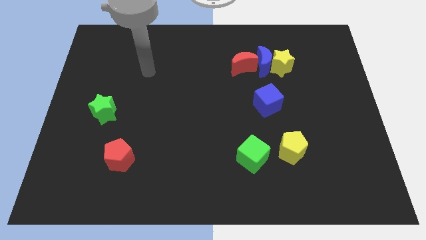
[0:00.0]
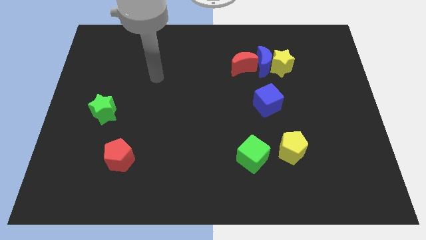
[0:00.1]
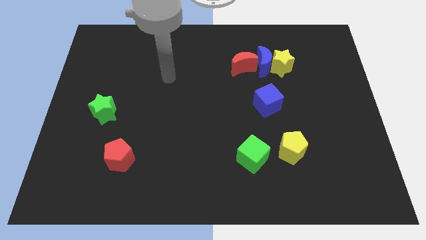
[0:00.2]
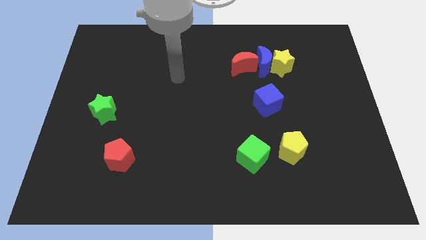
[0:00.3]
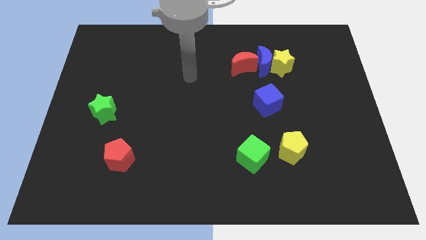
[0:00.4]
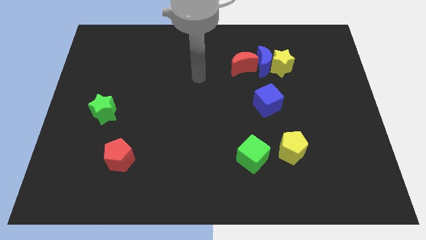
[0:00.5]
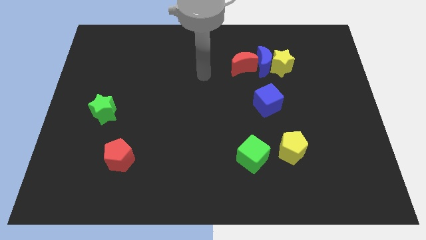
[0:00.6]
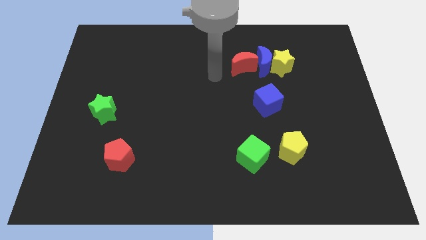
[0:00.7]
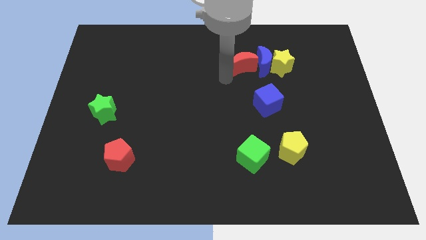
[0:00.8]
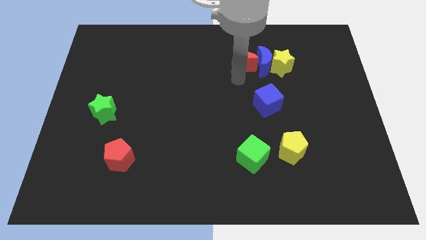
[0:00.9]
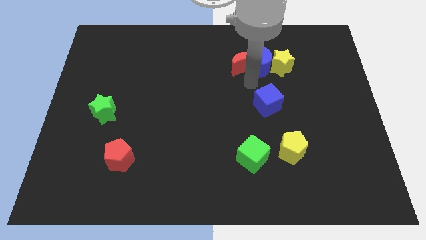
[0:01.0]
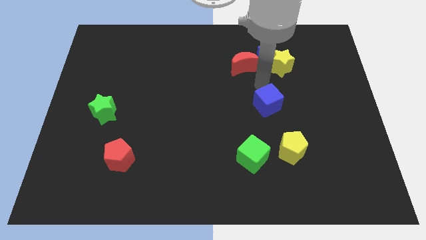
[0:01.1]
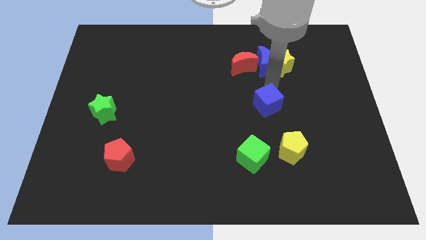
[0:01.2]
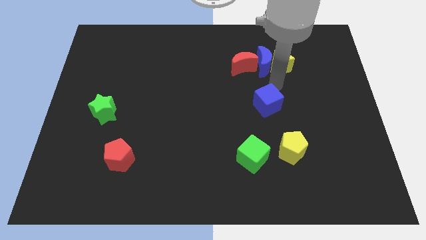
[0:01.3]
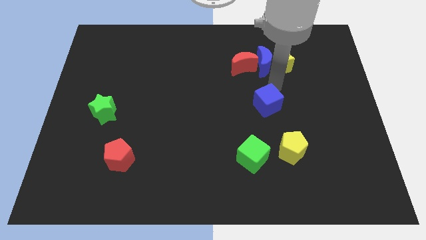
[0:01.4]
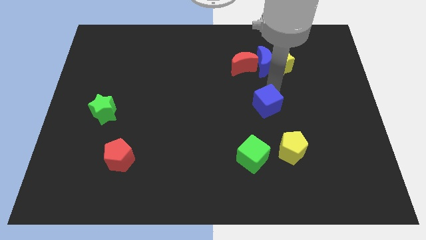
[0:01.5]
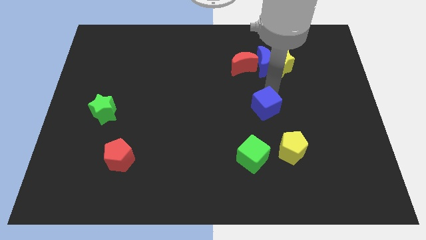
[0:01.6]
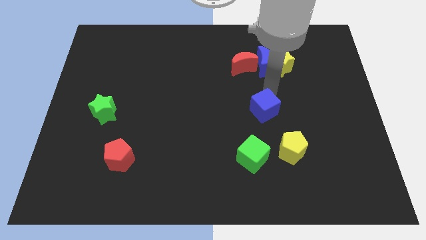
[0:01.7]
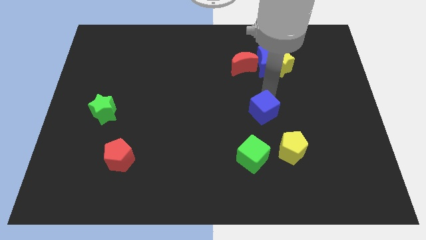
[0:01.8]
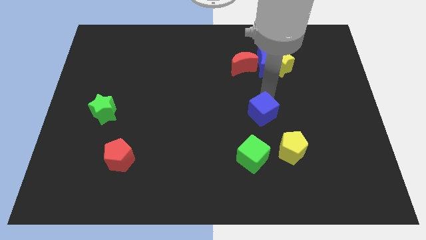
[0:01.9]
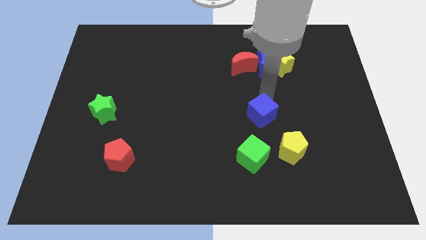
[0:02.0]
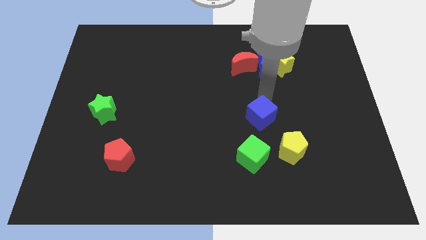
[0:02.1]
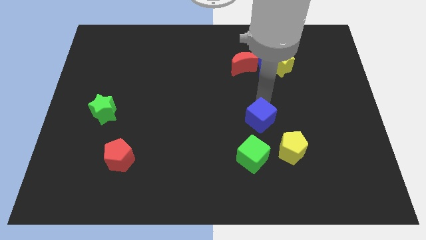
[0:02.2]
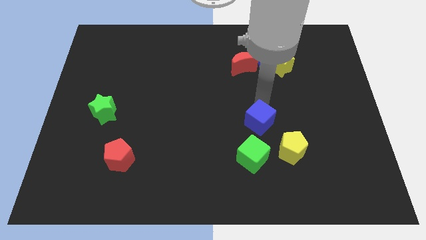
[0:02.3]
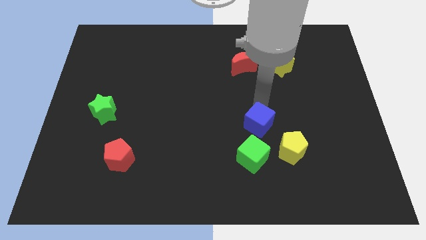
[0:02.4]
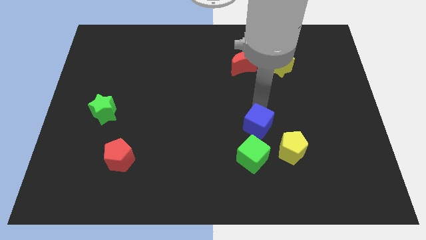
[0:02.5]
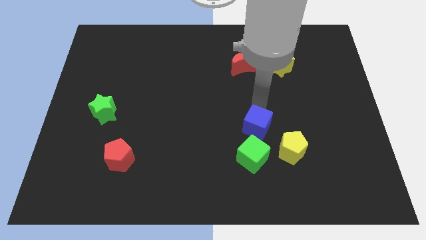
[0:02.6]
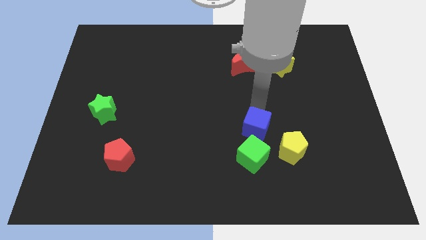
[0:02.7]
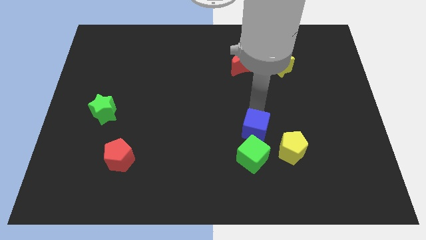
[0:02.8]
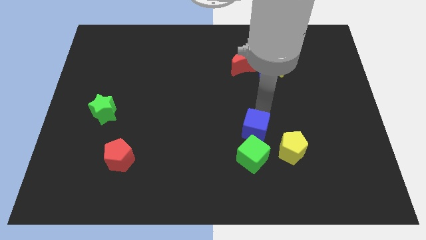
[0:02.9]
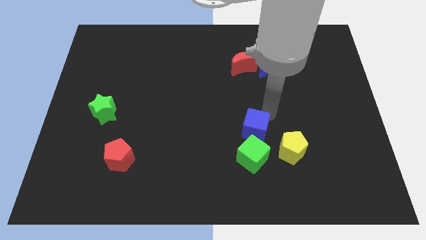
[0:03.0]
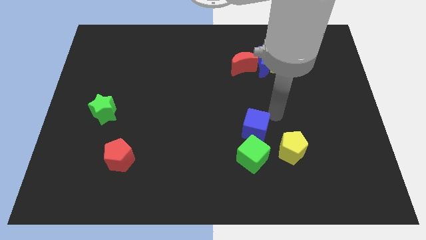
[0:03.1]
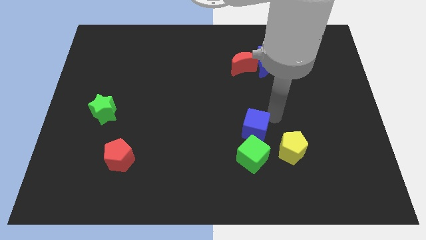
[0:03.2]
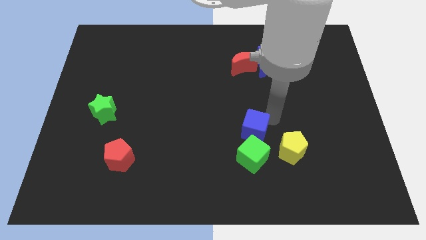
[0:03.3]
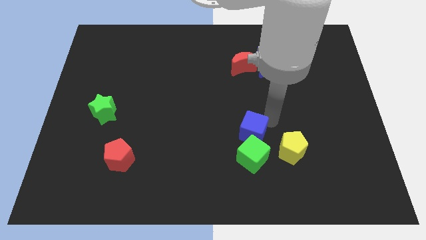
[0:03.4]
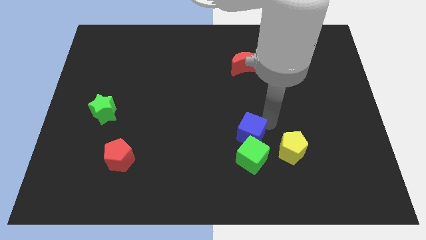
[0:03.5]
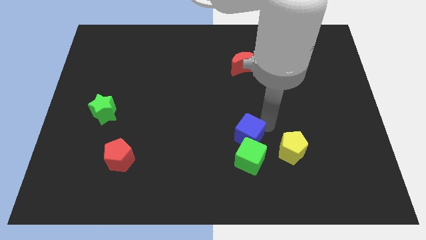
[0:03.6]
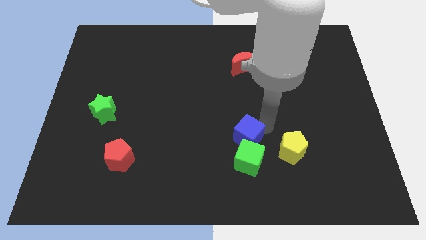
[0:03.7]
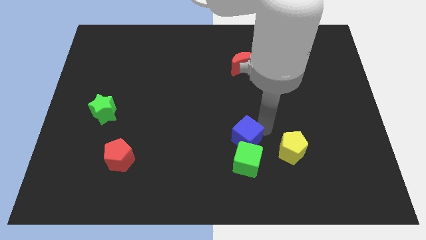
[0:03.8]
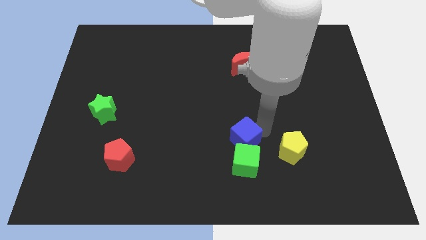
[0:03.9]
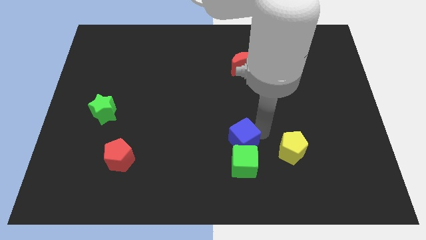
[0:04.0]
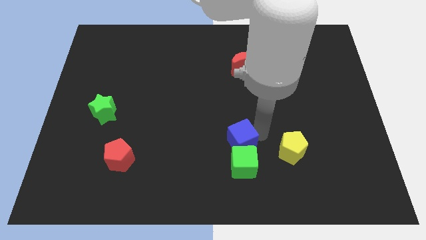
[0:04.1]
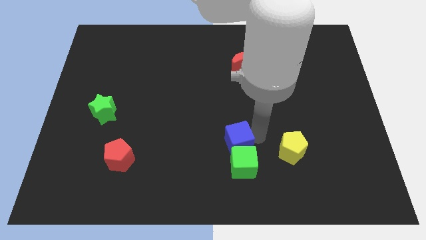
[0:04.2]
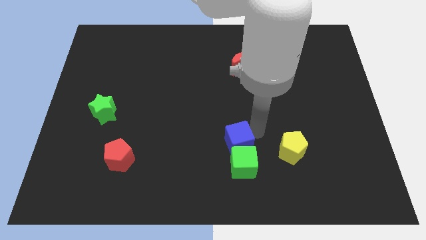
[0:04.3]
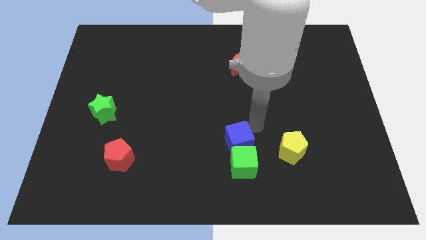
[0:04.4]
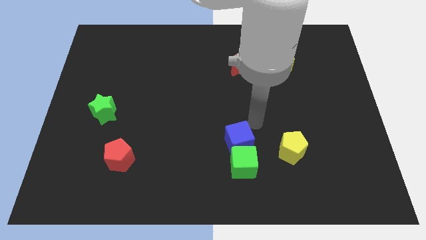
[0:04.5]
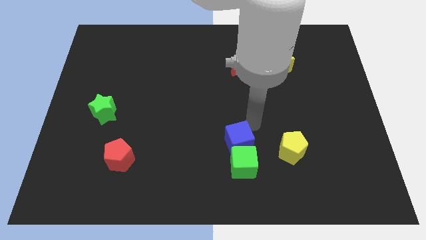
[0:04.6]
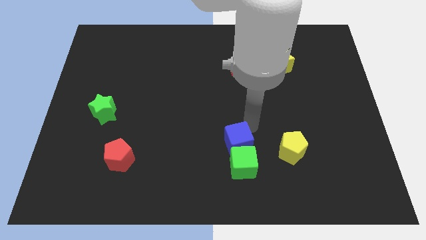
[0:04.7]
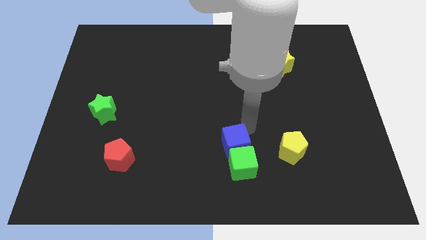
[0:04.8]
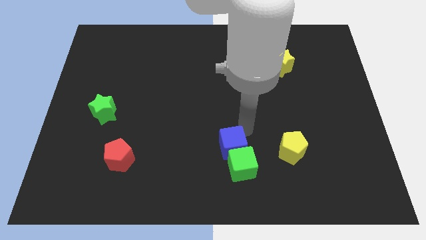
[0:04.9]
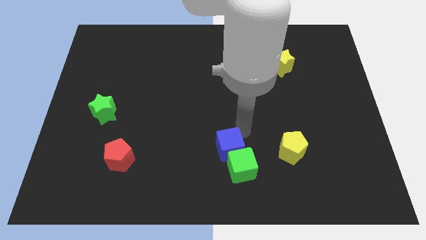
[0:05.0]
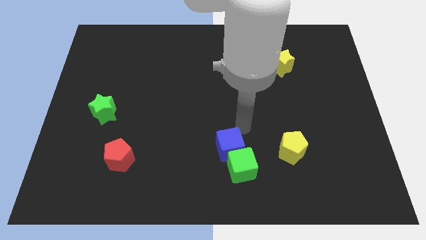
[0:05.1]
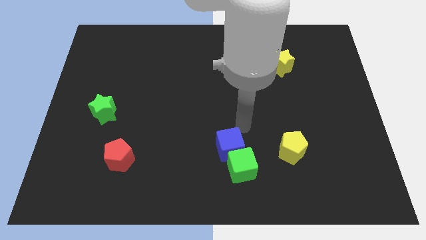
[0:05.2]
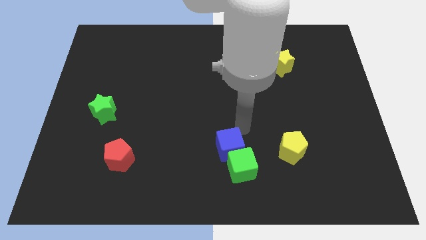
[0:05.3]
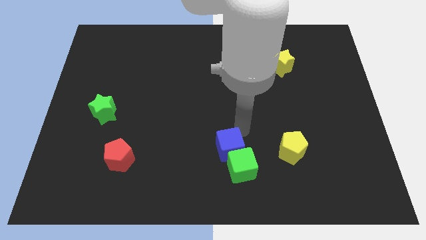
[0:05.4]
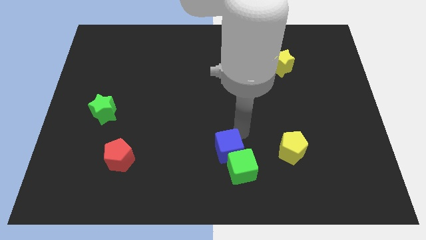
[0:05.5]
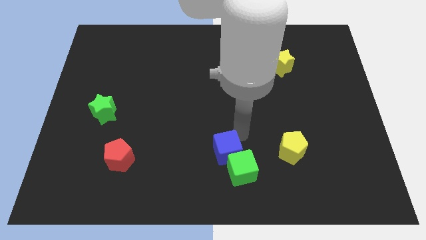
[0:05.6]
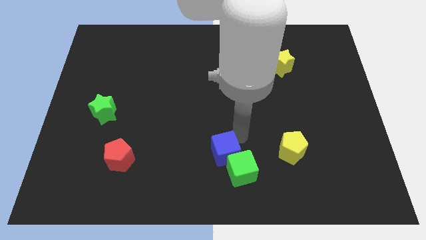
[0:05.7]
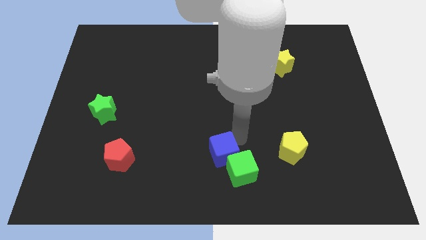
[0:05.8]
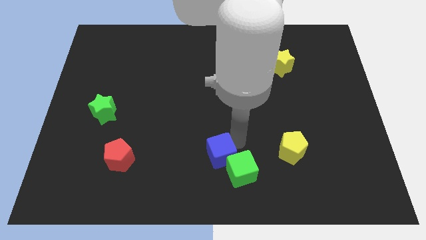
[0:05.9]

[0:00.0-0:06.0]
slide the blue cube to the bottom side

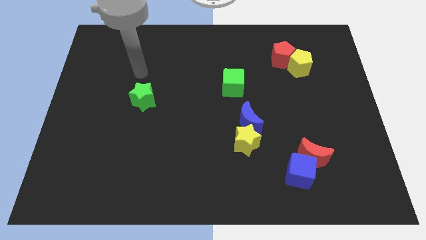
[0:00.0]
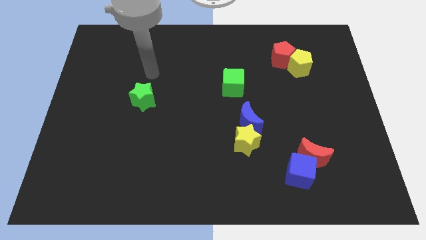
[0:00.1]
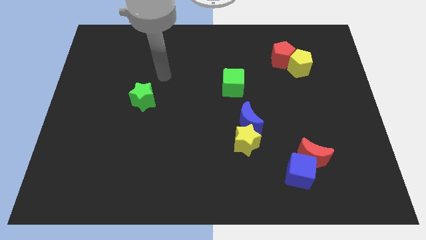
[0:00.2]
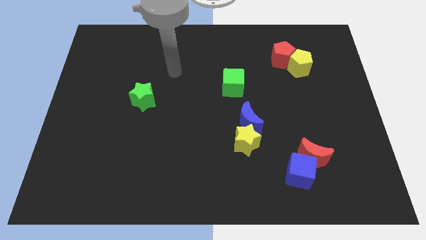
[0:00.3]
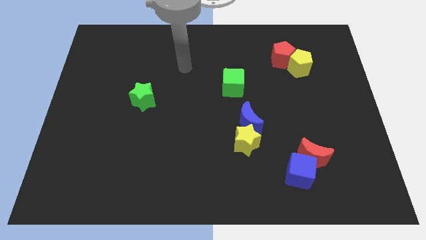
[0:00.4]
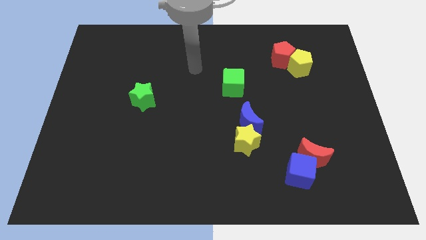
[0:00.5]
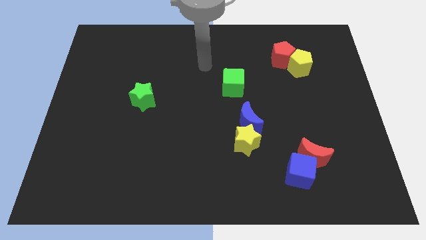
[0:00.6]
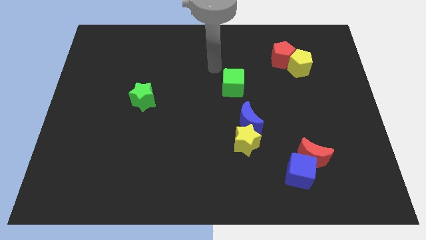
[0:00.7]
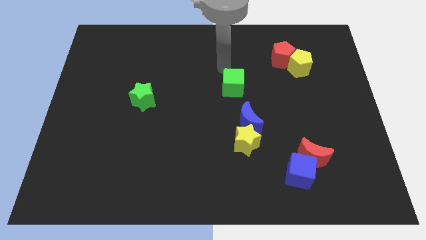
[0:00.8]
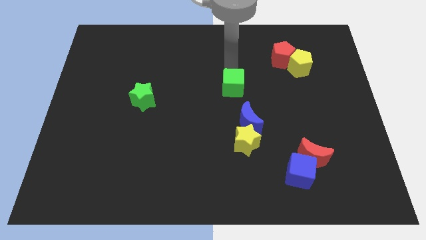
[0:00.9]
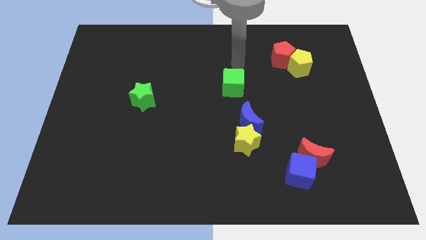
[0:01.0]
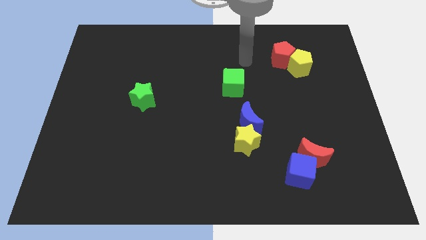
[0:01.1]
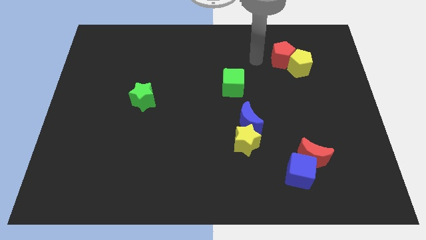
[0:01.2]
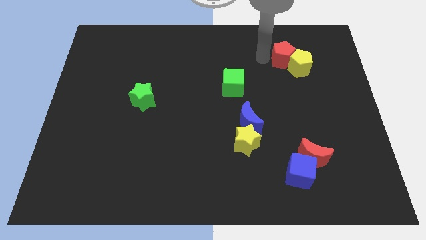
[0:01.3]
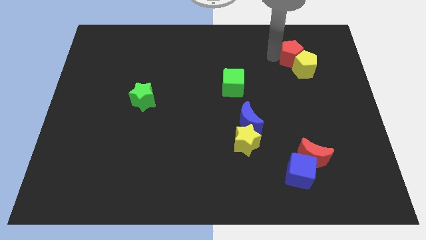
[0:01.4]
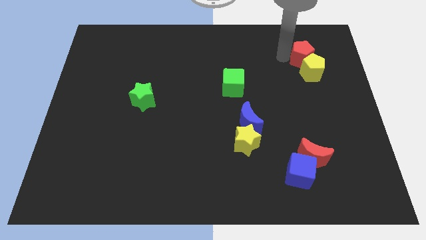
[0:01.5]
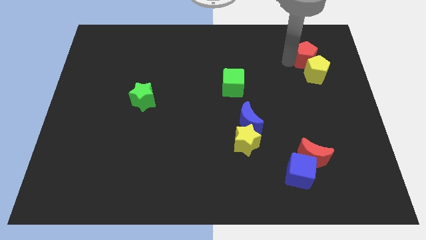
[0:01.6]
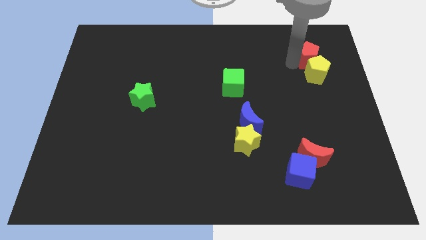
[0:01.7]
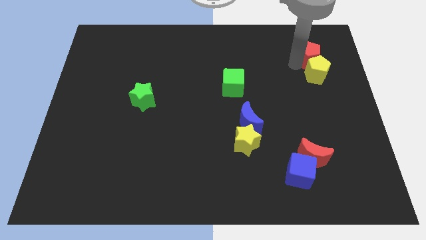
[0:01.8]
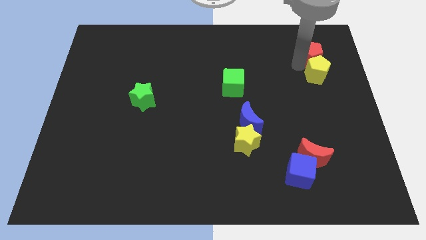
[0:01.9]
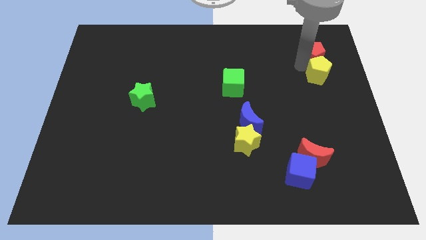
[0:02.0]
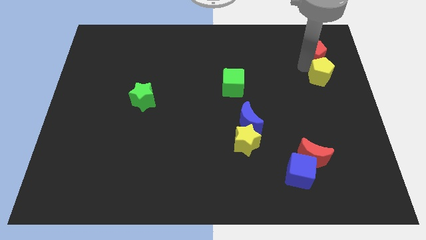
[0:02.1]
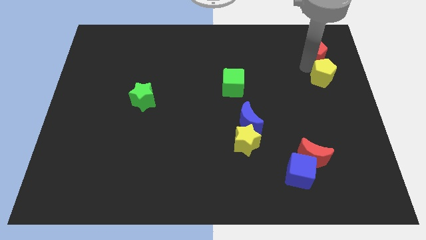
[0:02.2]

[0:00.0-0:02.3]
move the yellow pentagon to the right side of the board
